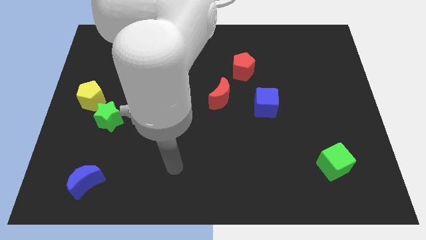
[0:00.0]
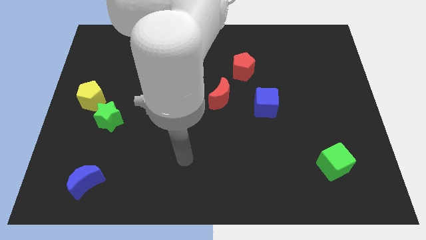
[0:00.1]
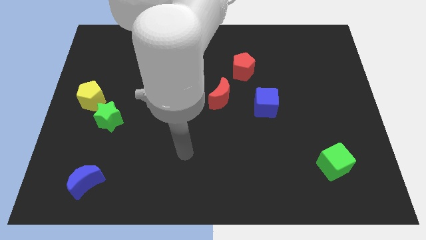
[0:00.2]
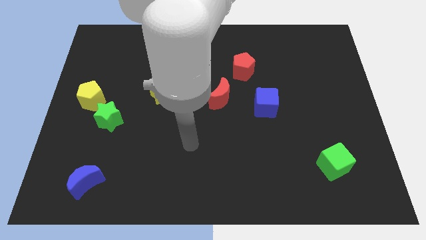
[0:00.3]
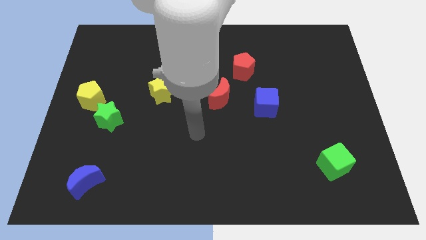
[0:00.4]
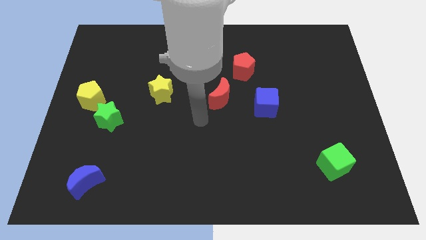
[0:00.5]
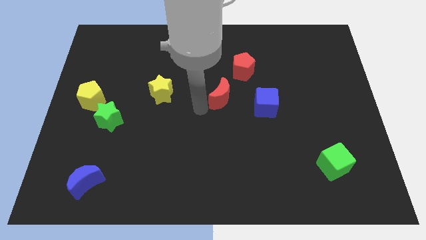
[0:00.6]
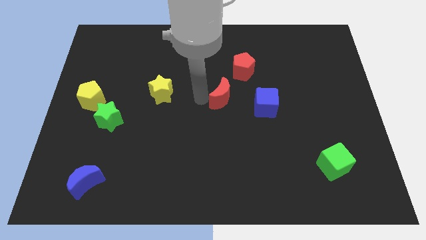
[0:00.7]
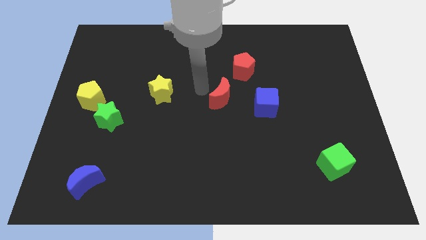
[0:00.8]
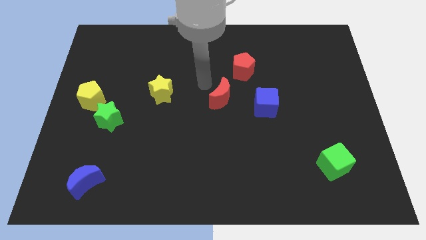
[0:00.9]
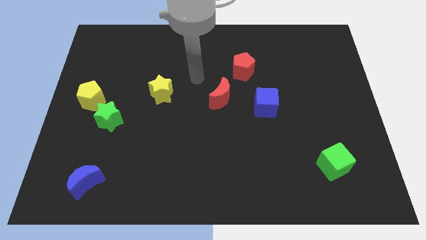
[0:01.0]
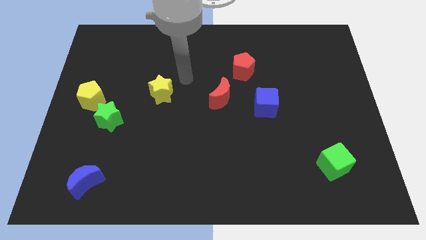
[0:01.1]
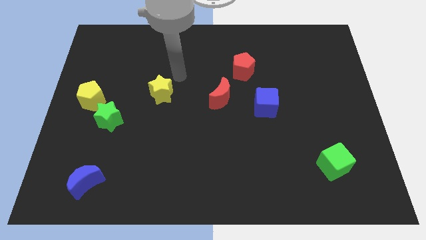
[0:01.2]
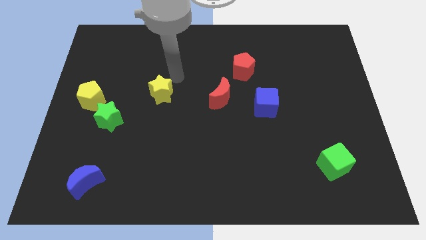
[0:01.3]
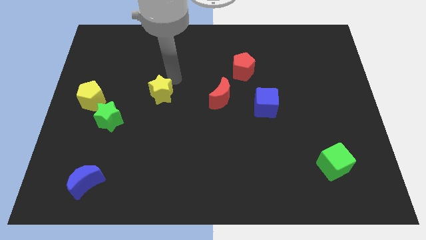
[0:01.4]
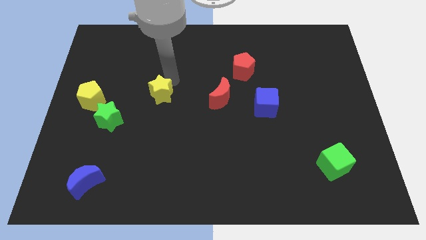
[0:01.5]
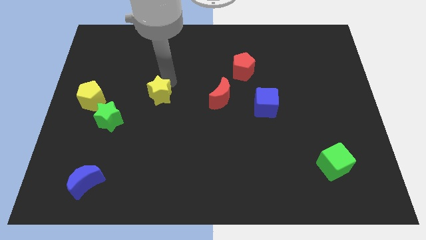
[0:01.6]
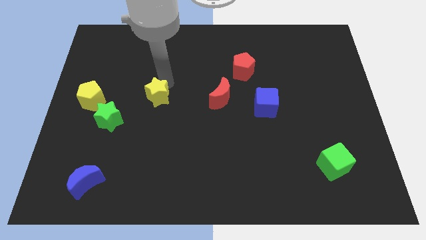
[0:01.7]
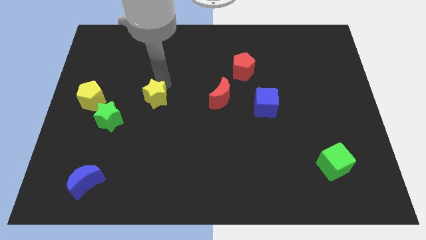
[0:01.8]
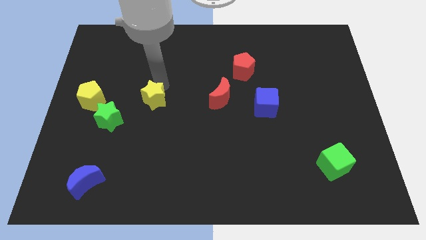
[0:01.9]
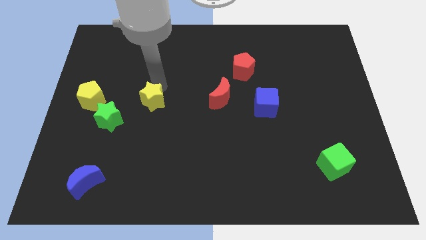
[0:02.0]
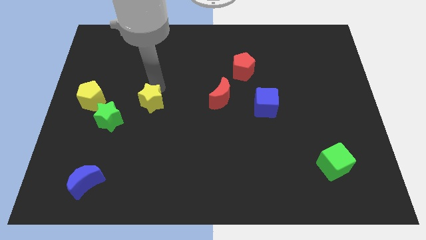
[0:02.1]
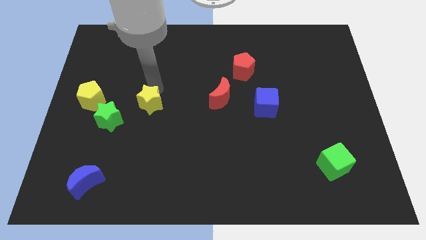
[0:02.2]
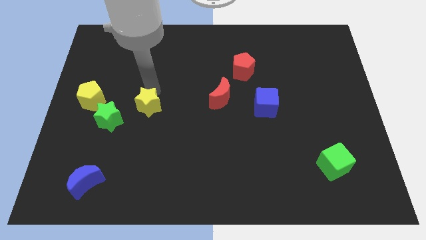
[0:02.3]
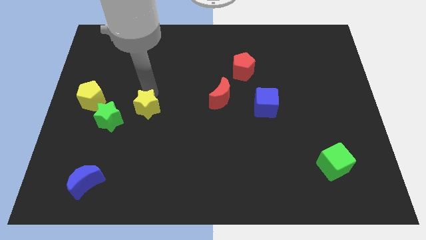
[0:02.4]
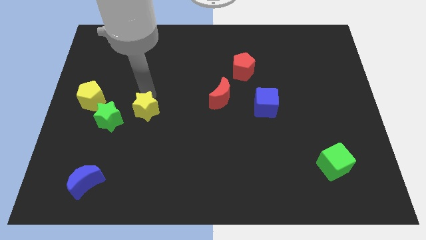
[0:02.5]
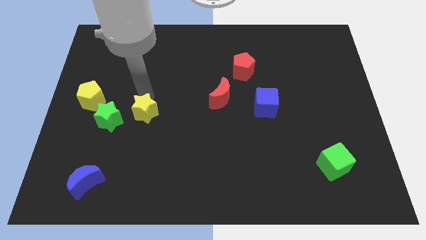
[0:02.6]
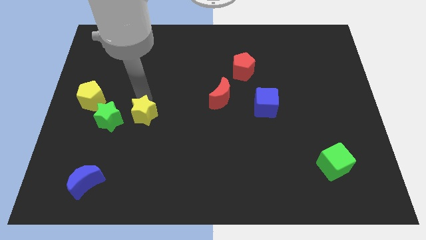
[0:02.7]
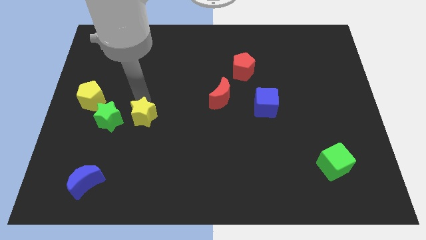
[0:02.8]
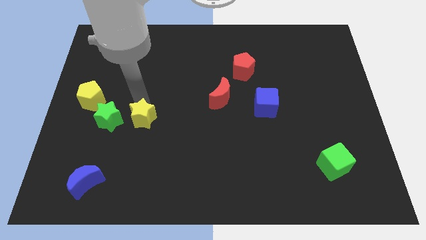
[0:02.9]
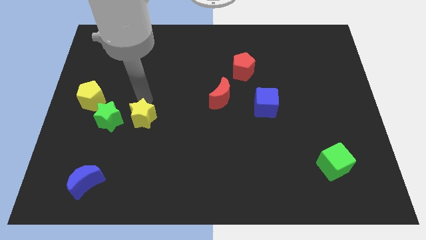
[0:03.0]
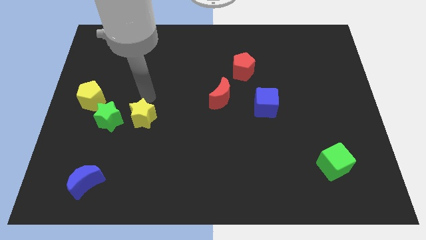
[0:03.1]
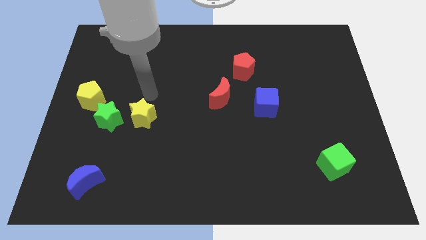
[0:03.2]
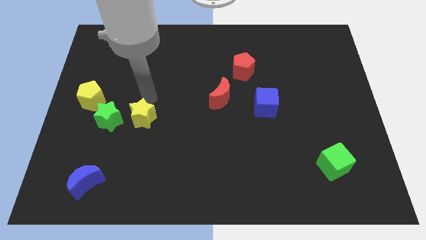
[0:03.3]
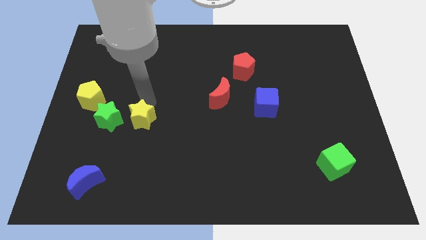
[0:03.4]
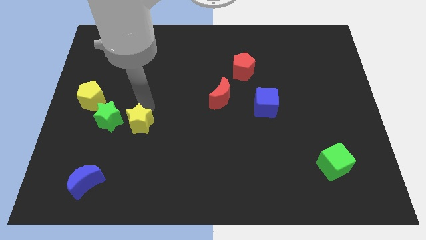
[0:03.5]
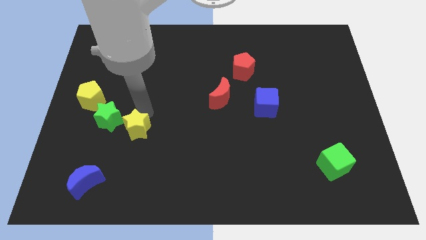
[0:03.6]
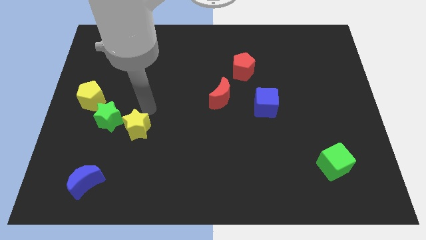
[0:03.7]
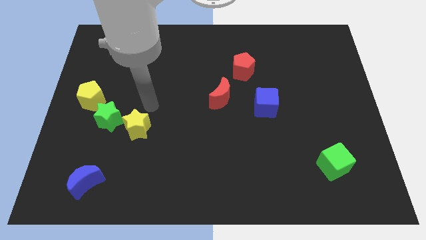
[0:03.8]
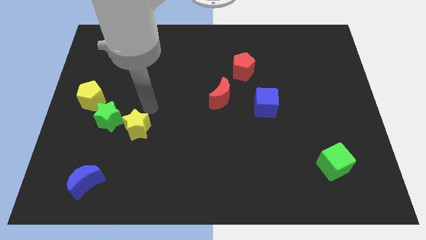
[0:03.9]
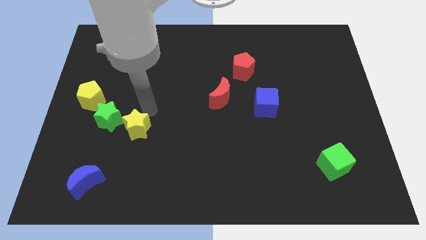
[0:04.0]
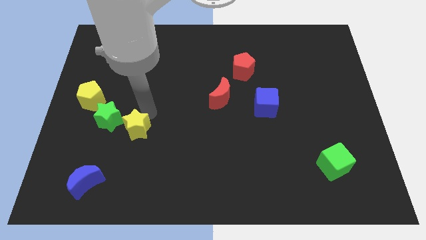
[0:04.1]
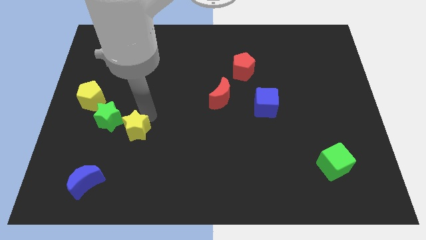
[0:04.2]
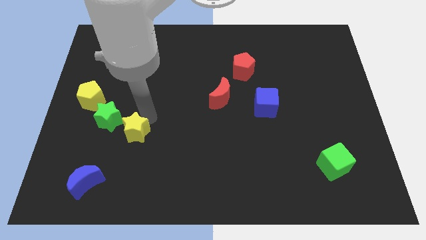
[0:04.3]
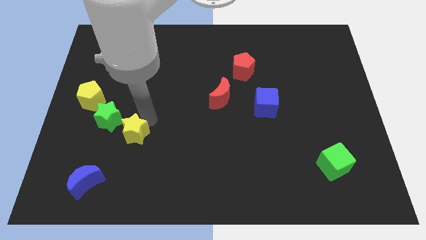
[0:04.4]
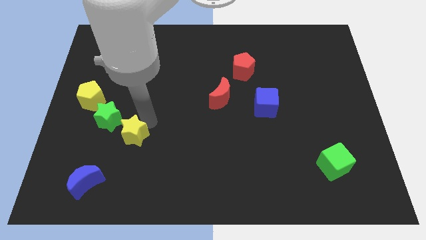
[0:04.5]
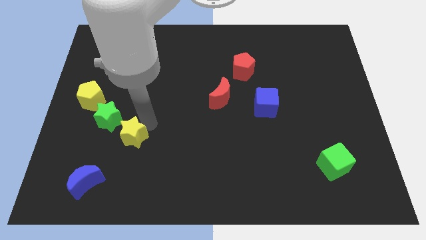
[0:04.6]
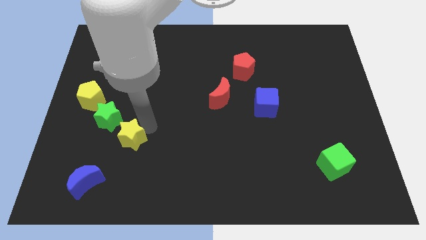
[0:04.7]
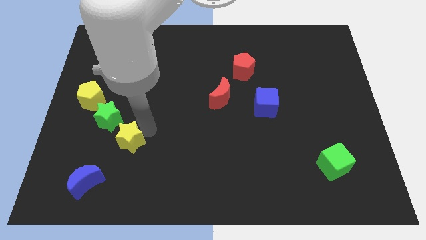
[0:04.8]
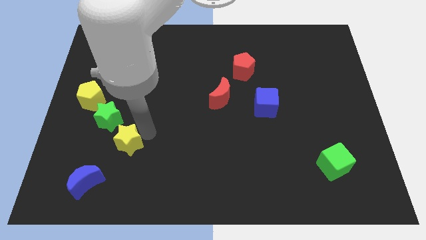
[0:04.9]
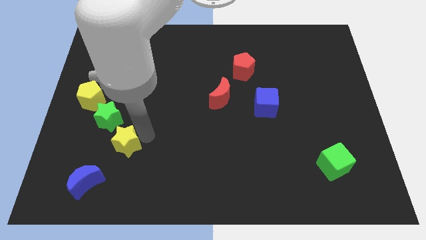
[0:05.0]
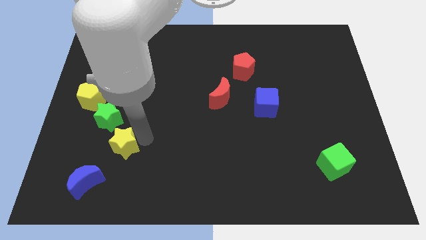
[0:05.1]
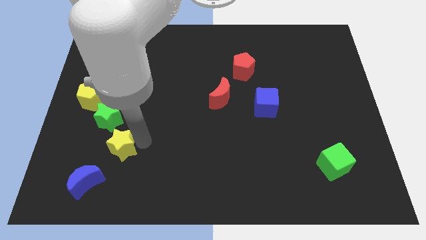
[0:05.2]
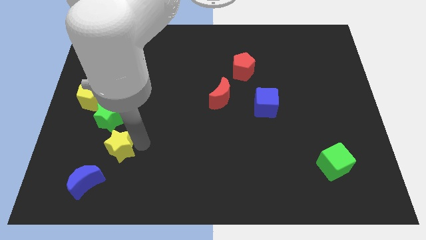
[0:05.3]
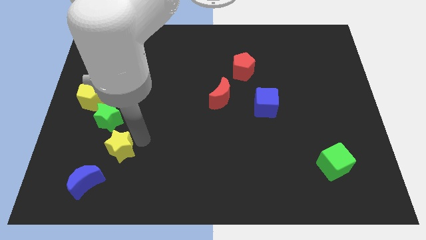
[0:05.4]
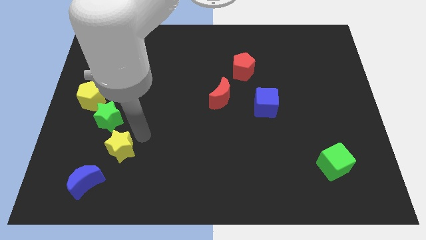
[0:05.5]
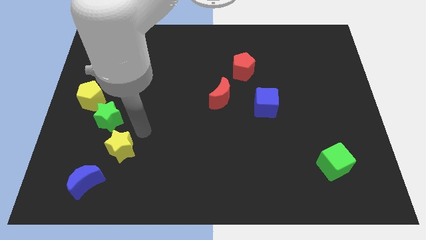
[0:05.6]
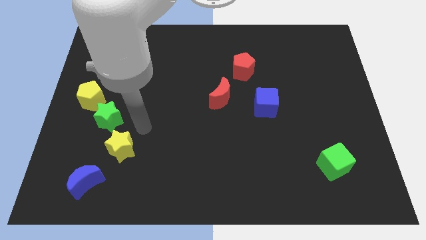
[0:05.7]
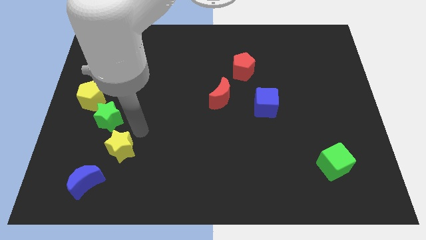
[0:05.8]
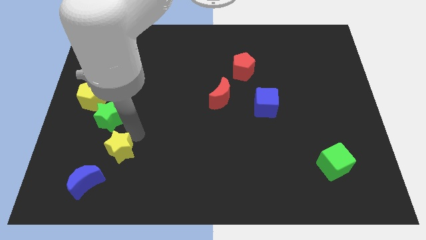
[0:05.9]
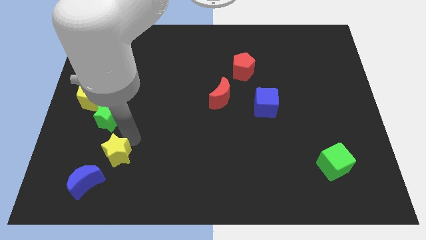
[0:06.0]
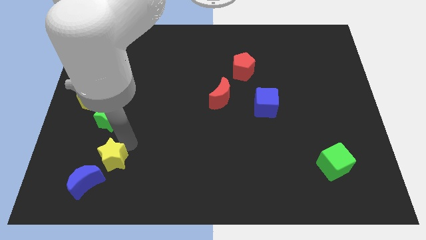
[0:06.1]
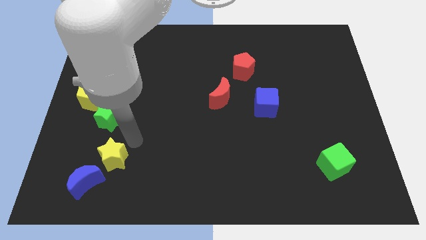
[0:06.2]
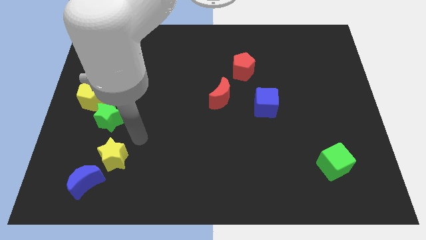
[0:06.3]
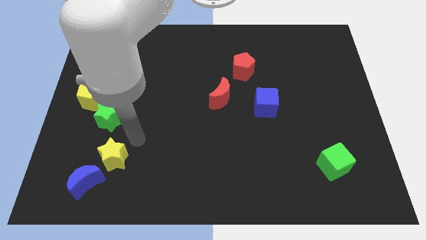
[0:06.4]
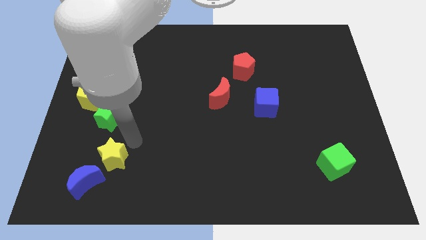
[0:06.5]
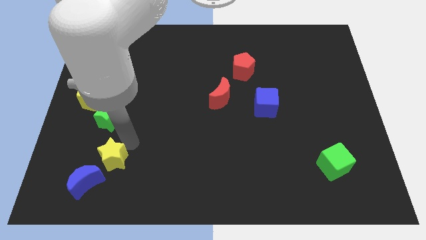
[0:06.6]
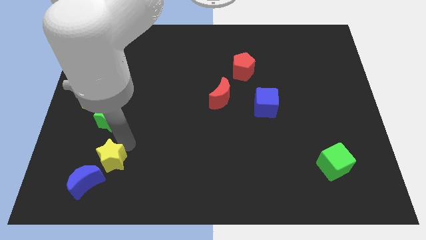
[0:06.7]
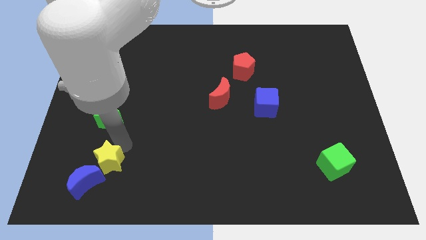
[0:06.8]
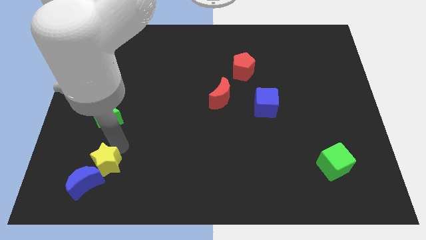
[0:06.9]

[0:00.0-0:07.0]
move the yellow star towards the blue moon
